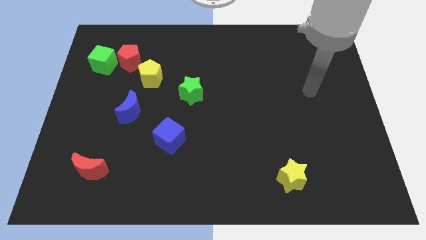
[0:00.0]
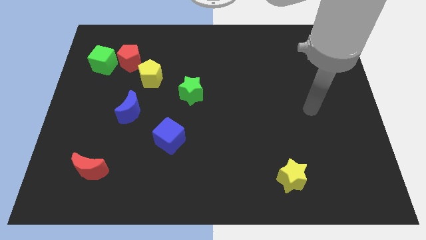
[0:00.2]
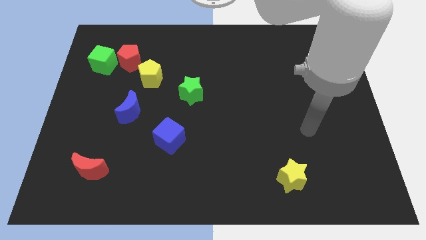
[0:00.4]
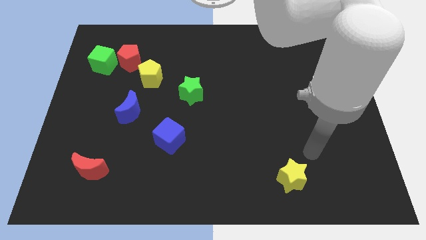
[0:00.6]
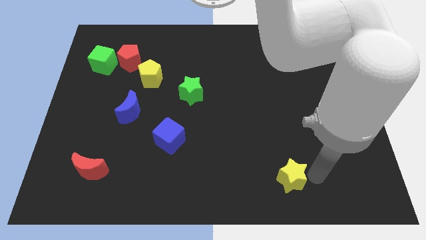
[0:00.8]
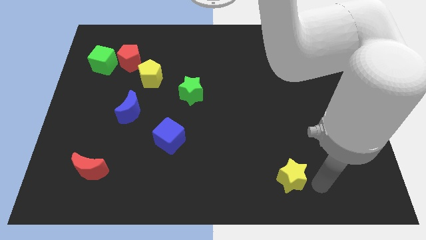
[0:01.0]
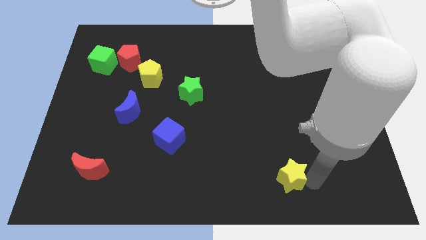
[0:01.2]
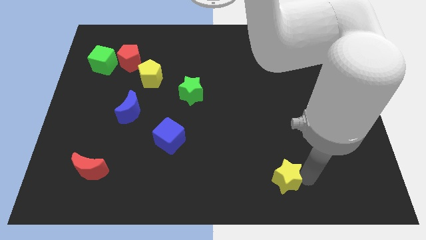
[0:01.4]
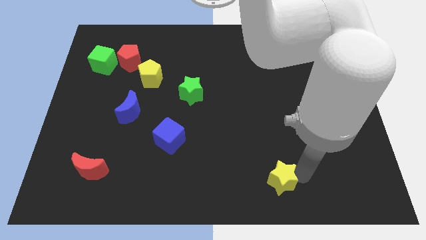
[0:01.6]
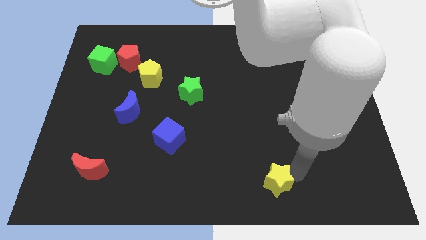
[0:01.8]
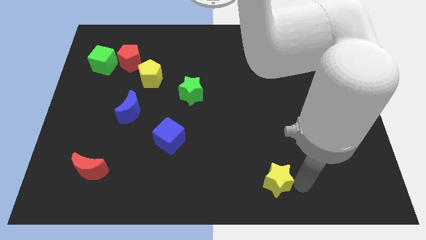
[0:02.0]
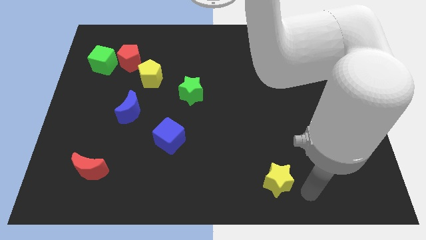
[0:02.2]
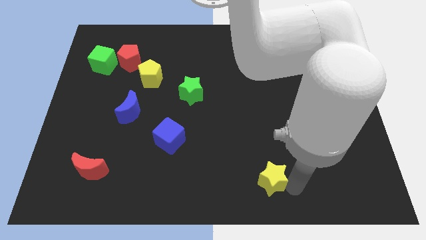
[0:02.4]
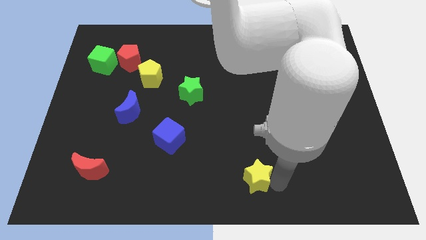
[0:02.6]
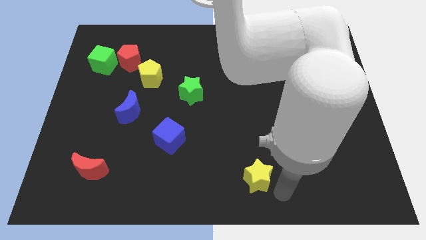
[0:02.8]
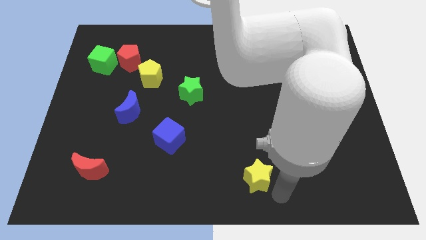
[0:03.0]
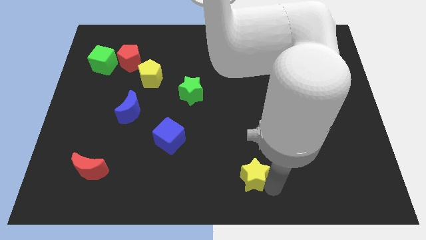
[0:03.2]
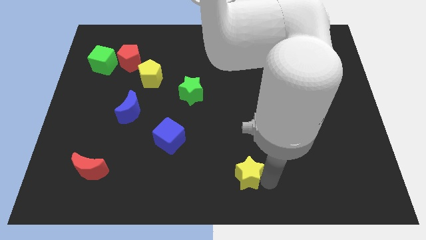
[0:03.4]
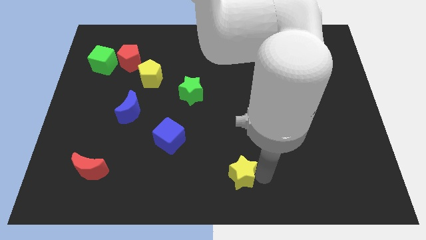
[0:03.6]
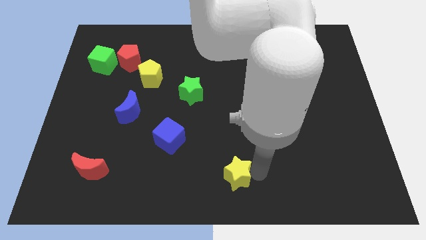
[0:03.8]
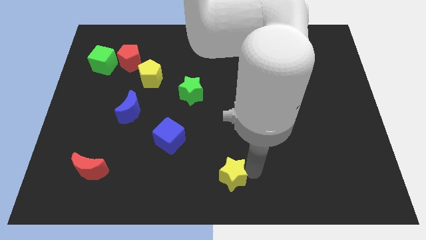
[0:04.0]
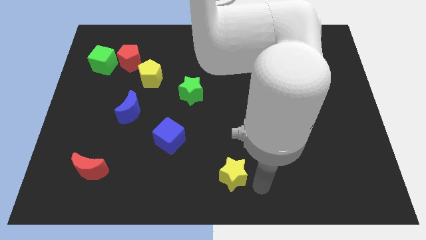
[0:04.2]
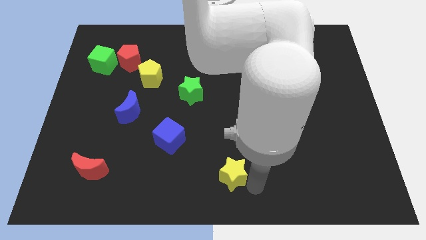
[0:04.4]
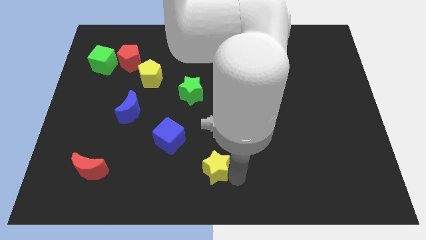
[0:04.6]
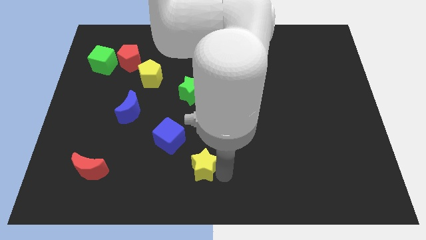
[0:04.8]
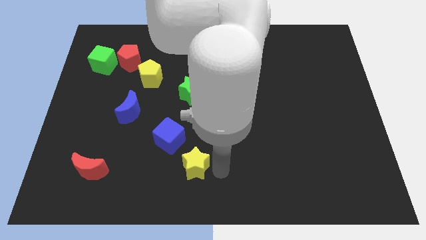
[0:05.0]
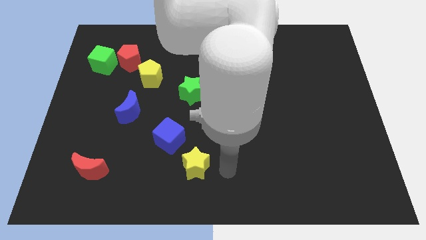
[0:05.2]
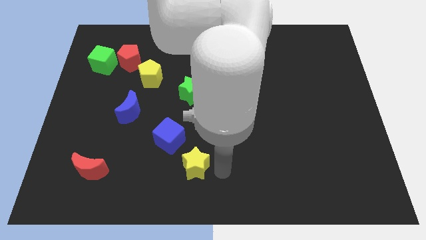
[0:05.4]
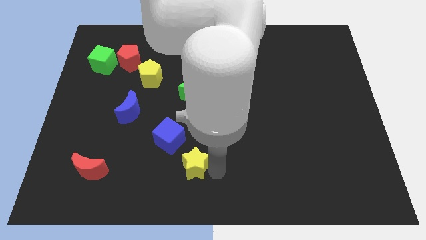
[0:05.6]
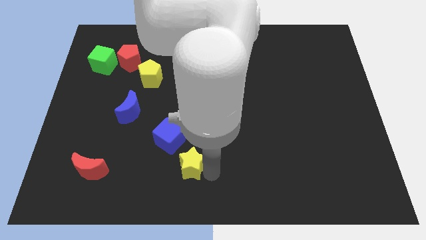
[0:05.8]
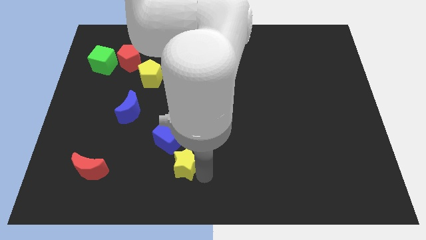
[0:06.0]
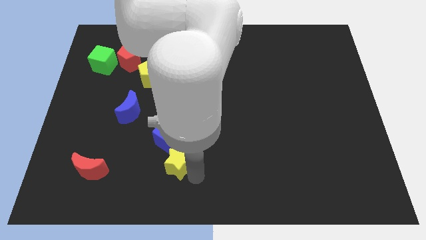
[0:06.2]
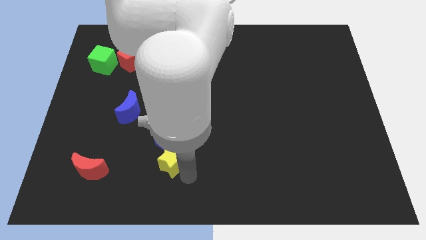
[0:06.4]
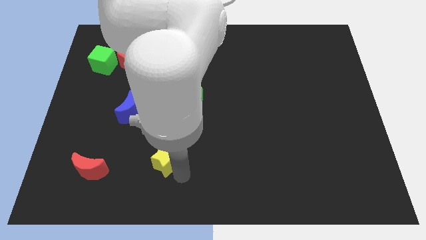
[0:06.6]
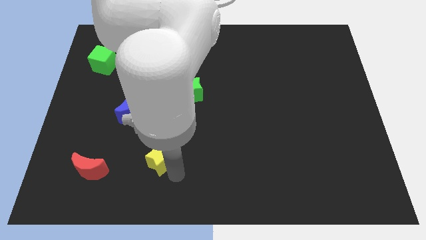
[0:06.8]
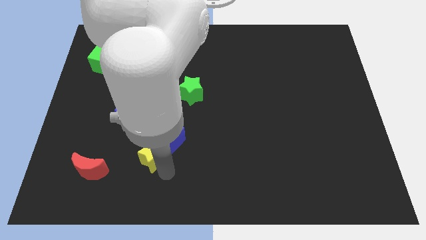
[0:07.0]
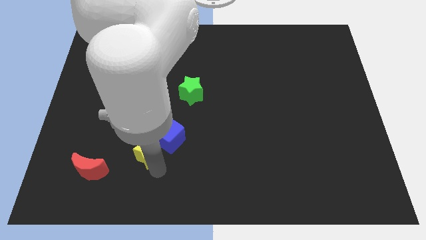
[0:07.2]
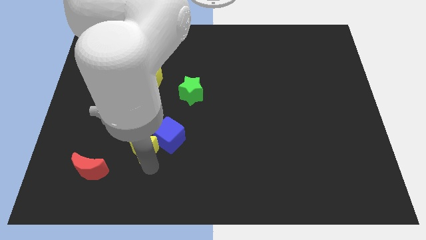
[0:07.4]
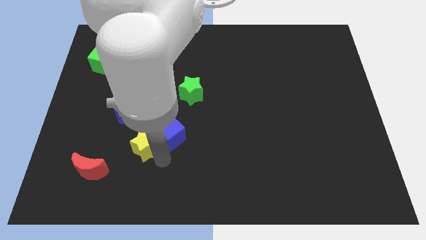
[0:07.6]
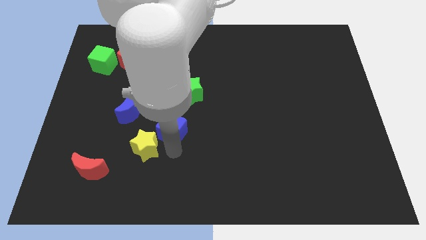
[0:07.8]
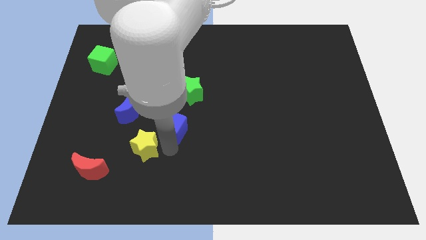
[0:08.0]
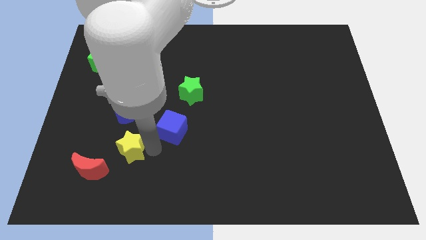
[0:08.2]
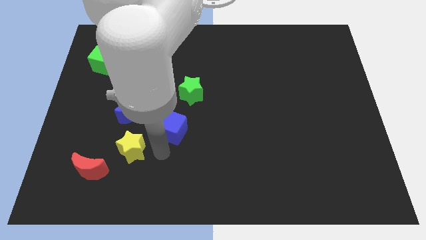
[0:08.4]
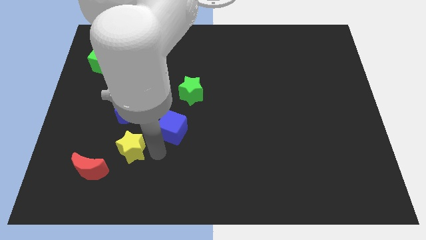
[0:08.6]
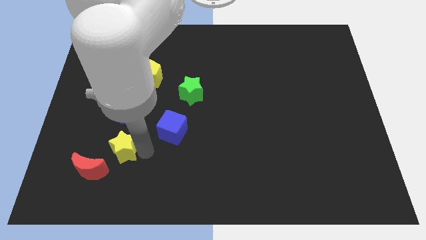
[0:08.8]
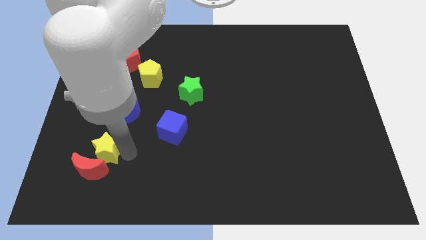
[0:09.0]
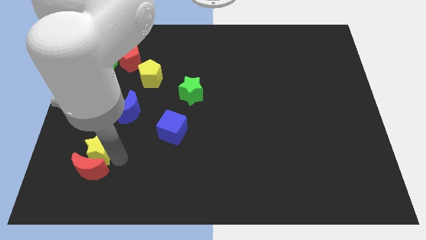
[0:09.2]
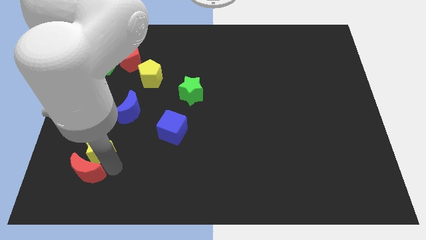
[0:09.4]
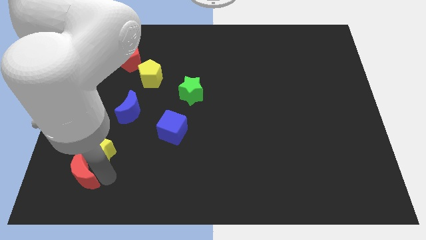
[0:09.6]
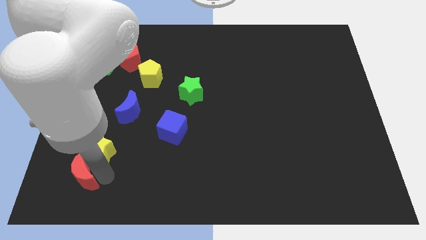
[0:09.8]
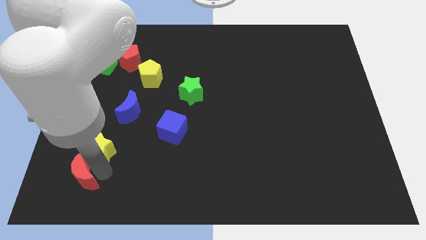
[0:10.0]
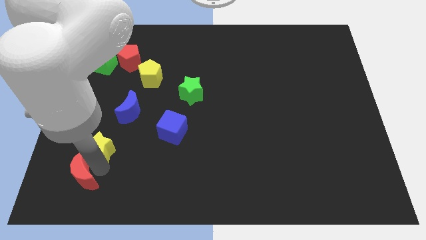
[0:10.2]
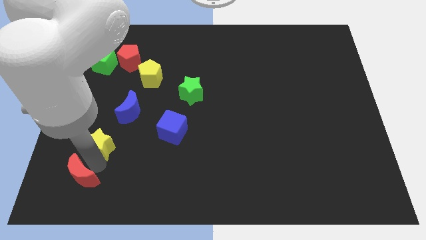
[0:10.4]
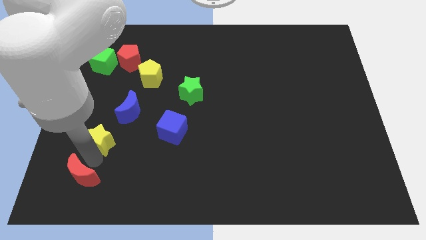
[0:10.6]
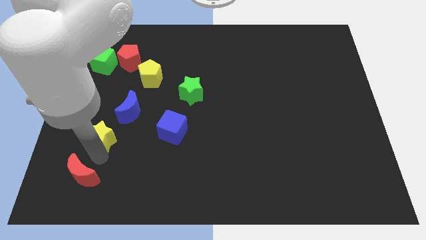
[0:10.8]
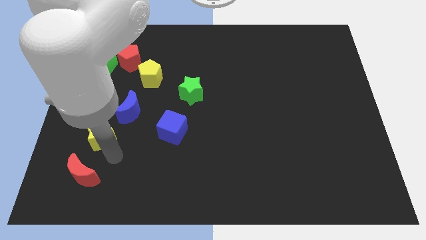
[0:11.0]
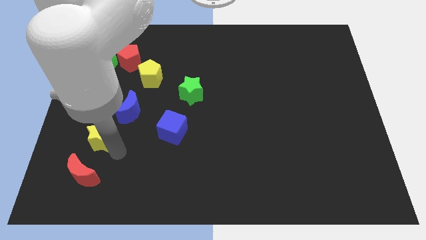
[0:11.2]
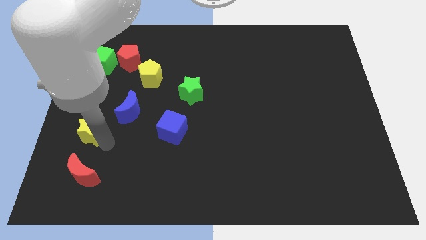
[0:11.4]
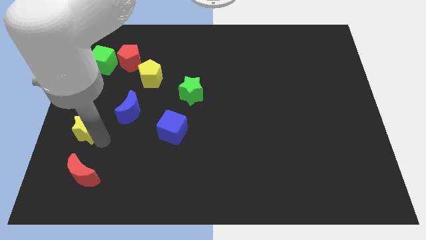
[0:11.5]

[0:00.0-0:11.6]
put the yellow star to the center left
